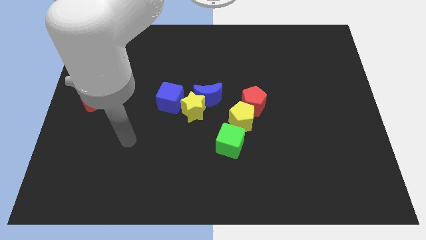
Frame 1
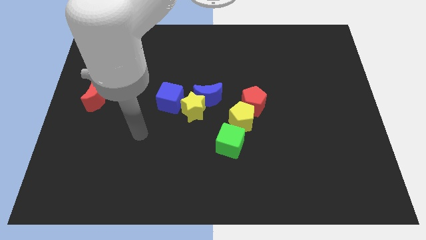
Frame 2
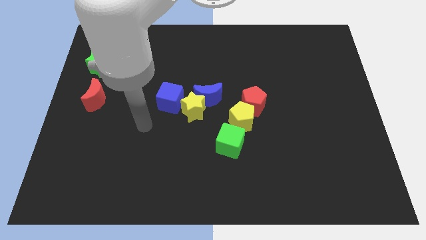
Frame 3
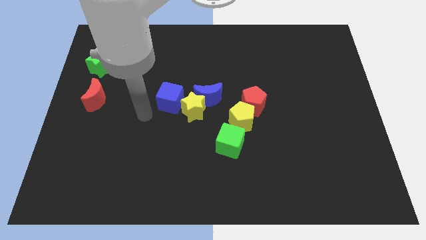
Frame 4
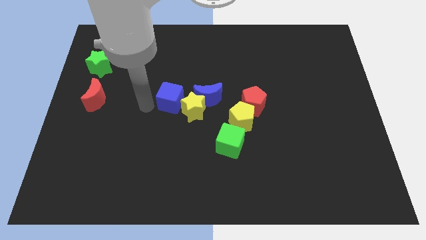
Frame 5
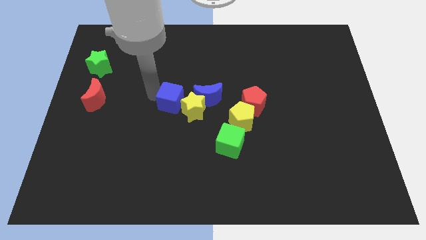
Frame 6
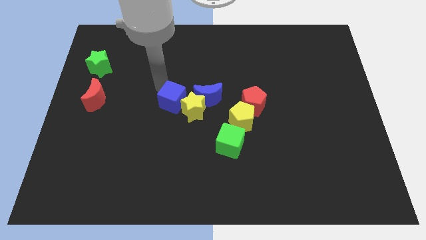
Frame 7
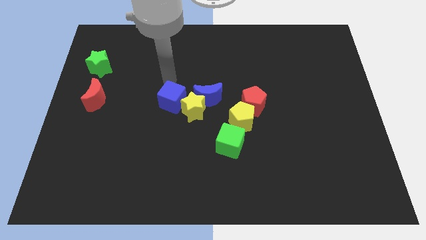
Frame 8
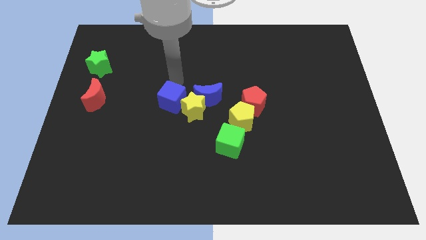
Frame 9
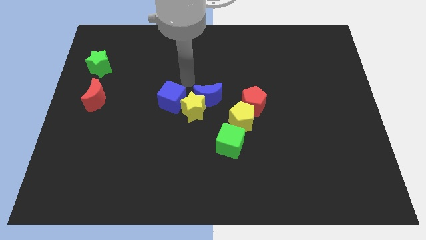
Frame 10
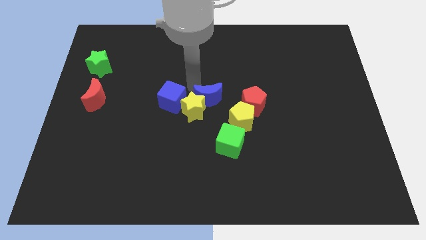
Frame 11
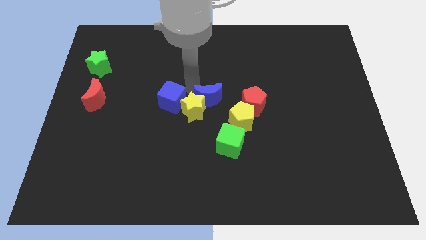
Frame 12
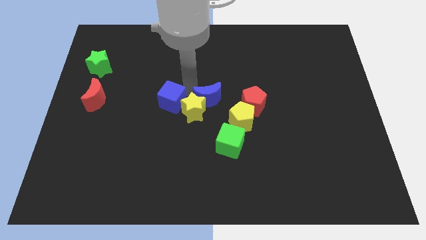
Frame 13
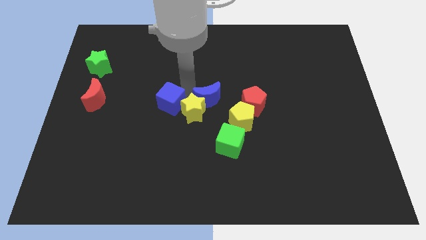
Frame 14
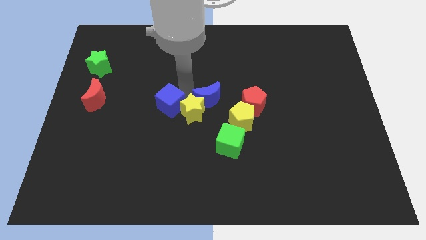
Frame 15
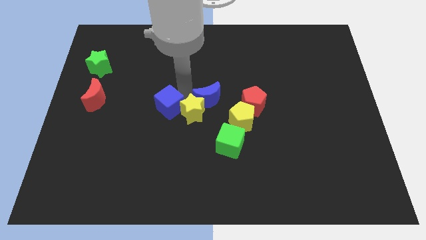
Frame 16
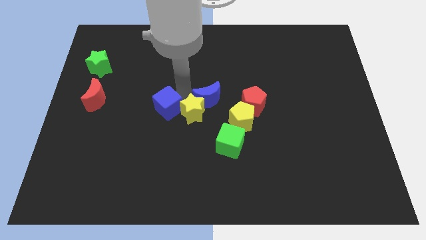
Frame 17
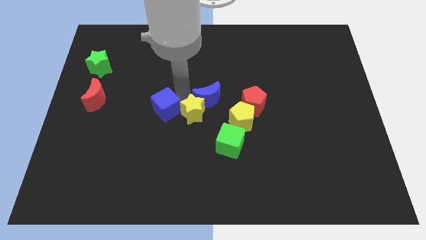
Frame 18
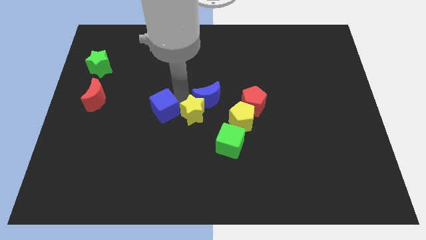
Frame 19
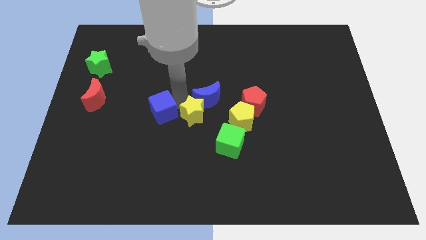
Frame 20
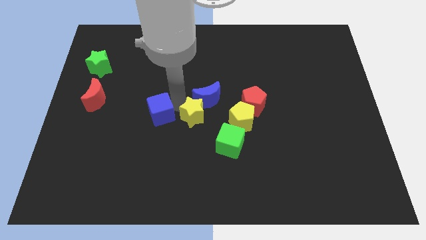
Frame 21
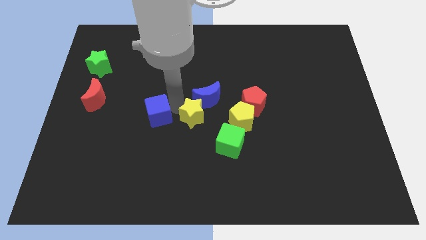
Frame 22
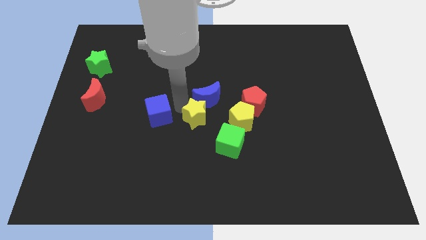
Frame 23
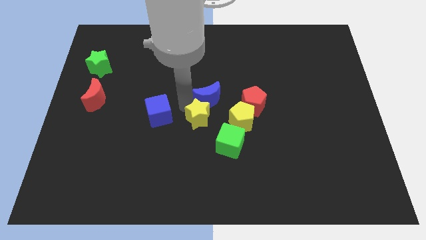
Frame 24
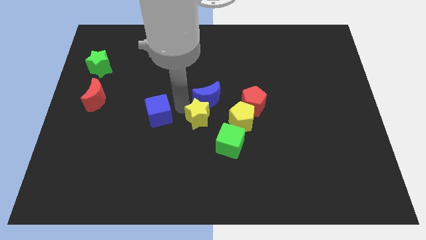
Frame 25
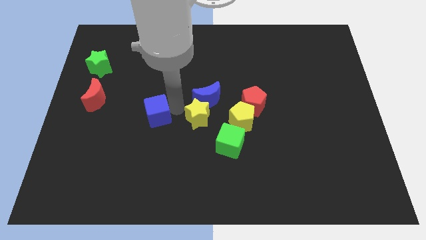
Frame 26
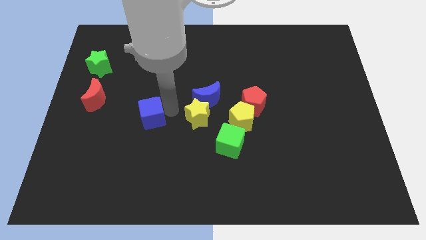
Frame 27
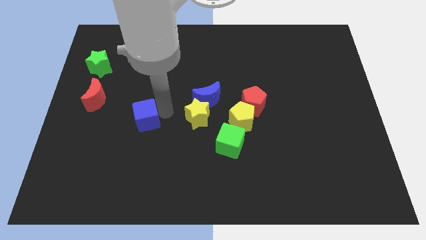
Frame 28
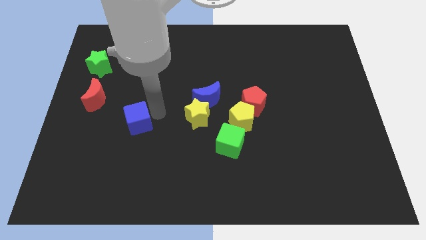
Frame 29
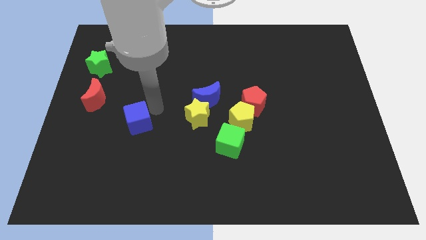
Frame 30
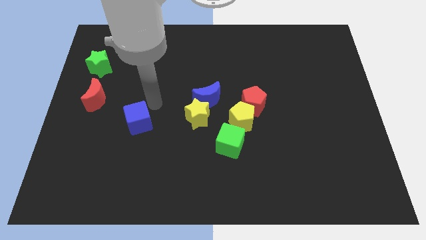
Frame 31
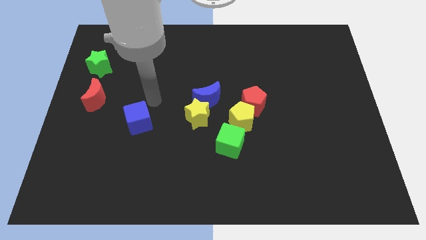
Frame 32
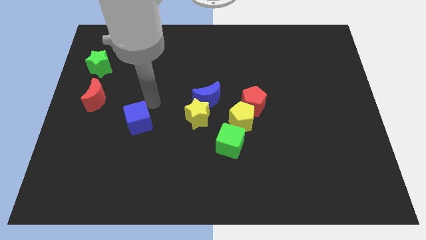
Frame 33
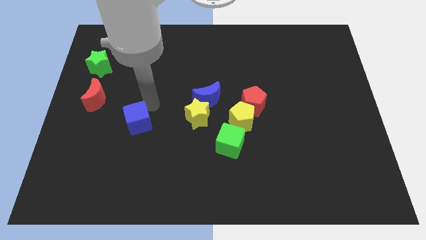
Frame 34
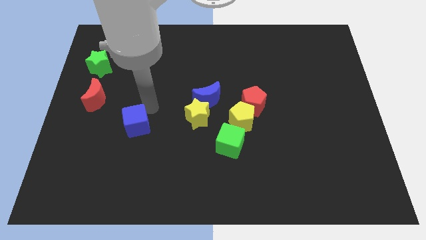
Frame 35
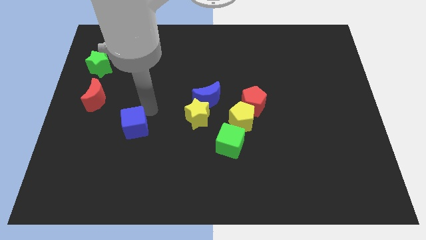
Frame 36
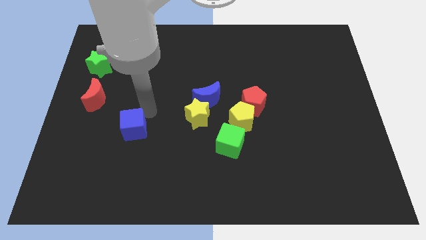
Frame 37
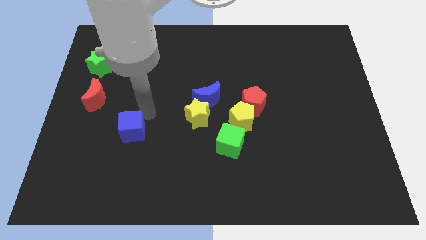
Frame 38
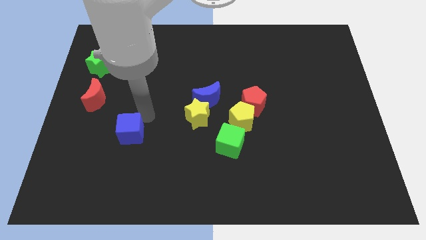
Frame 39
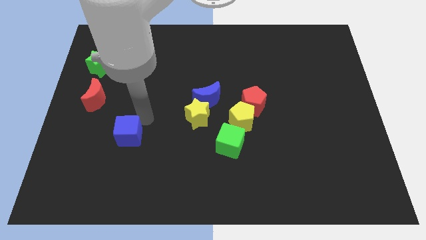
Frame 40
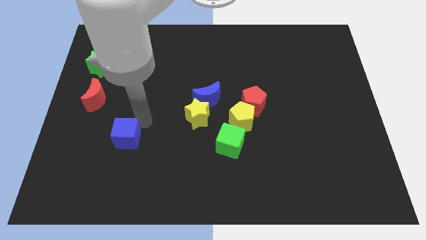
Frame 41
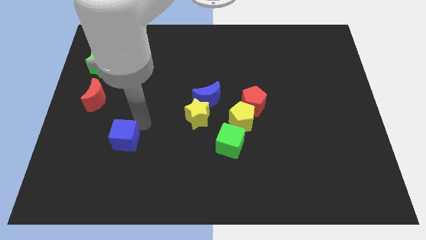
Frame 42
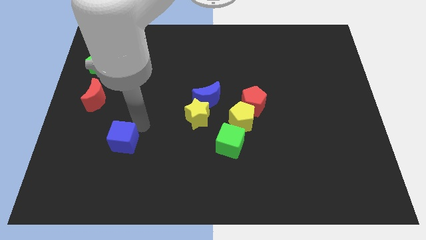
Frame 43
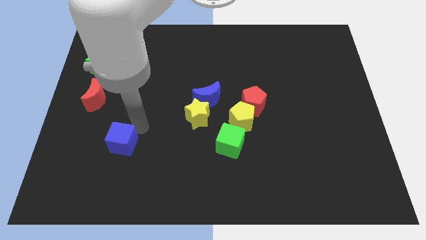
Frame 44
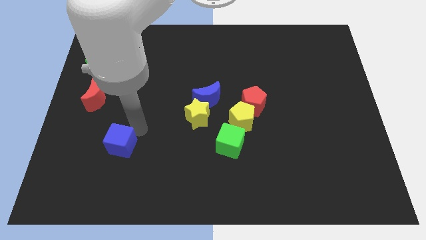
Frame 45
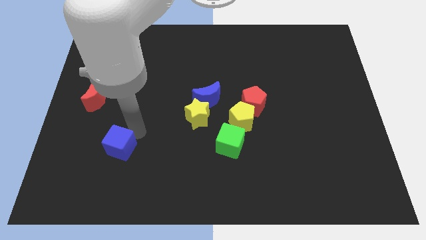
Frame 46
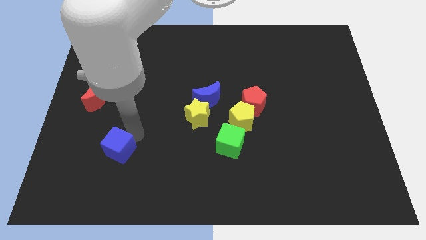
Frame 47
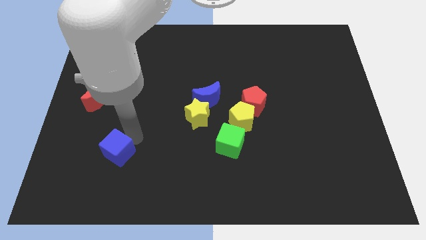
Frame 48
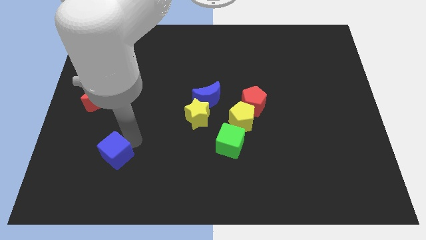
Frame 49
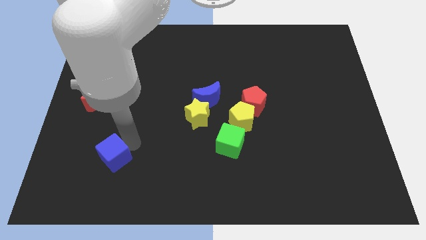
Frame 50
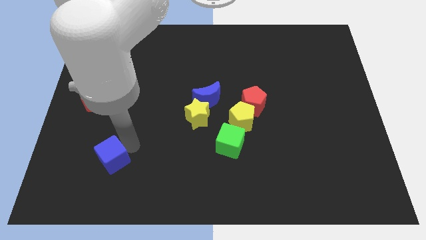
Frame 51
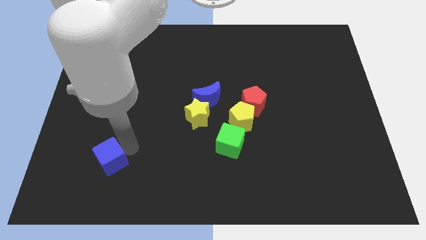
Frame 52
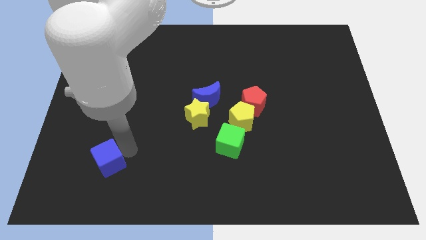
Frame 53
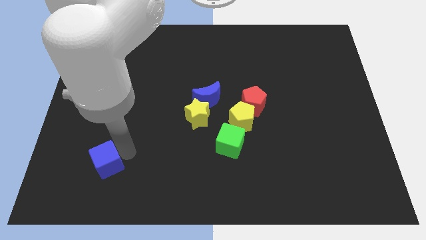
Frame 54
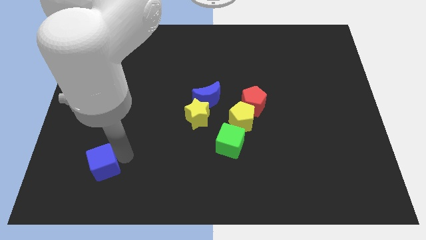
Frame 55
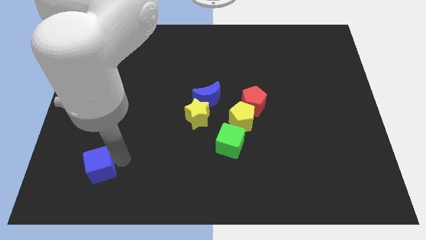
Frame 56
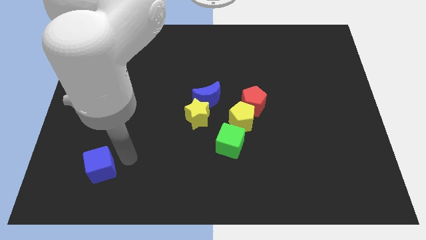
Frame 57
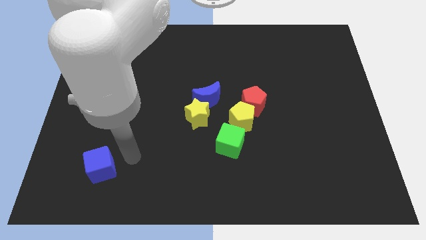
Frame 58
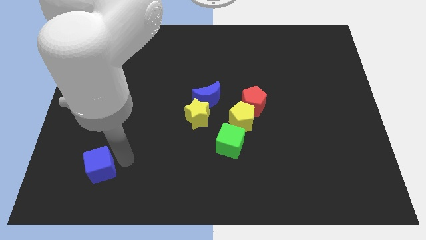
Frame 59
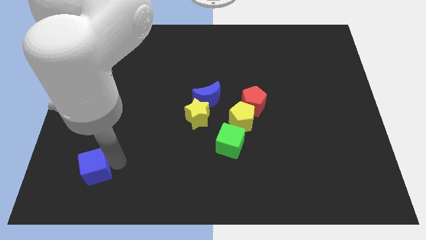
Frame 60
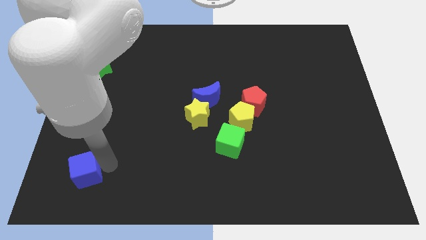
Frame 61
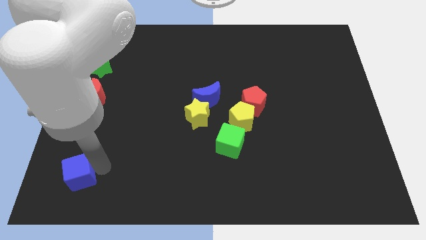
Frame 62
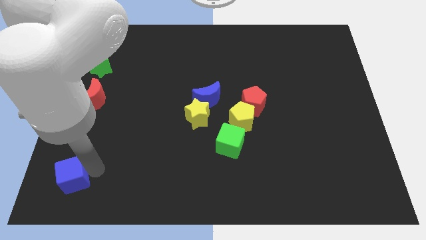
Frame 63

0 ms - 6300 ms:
put the blue cube to the bottom left of the board

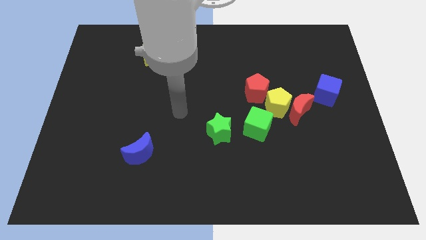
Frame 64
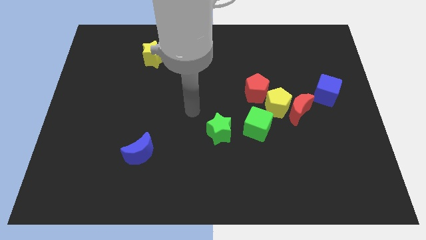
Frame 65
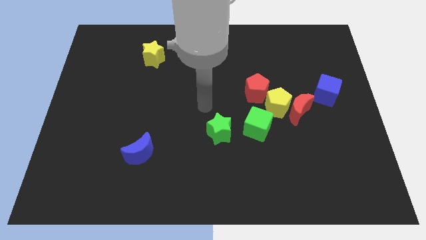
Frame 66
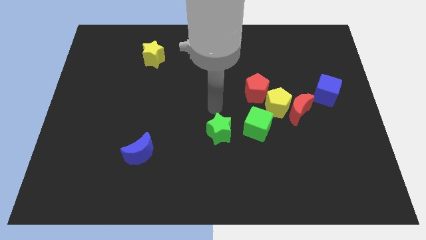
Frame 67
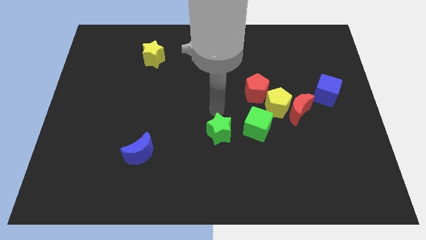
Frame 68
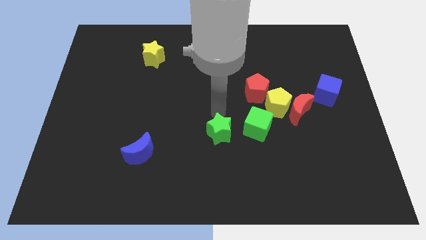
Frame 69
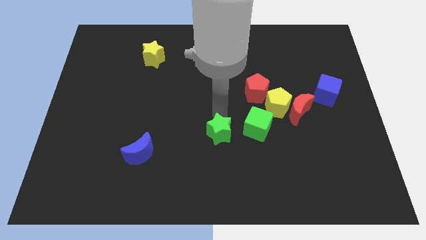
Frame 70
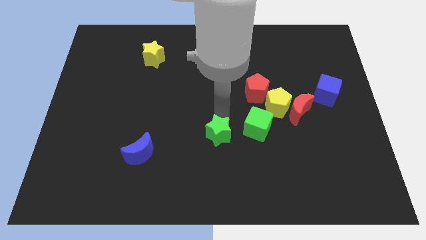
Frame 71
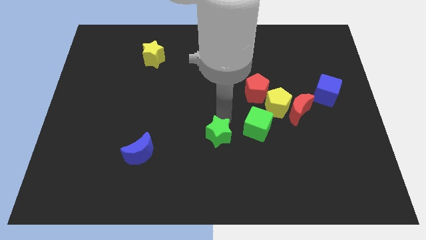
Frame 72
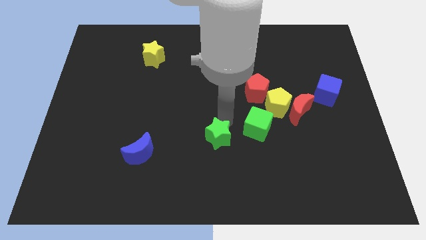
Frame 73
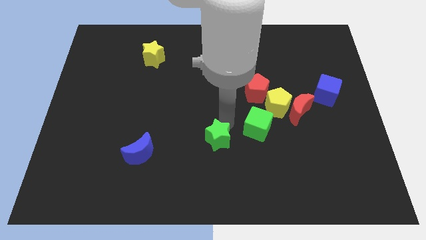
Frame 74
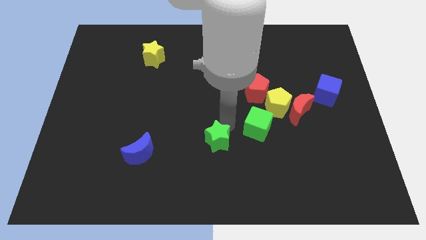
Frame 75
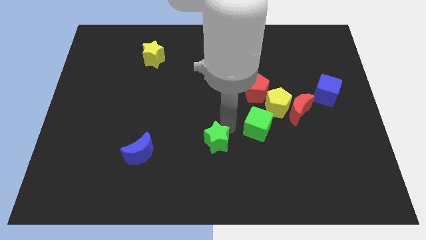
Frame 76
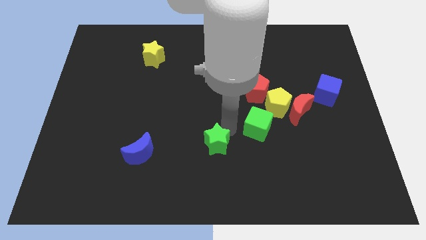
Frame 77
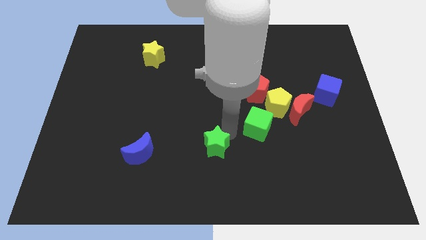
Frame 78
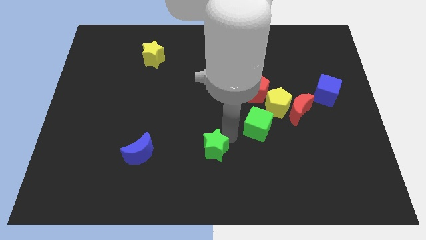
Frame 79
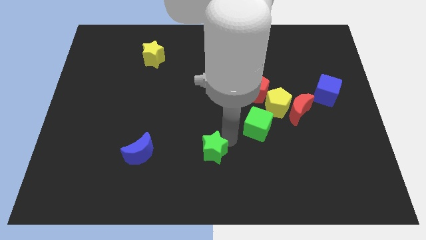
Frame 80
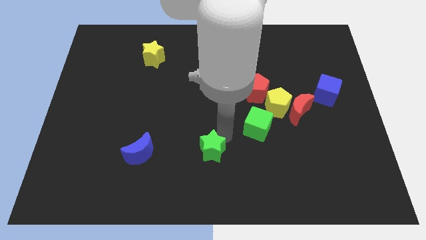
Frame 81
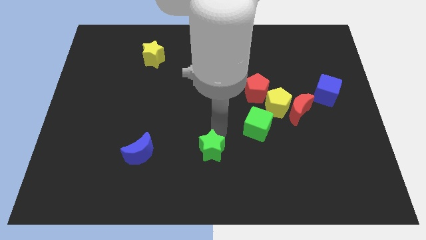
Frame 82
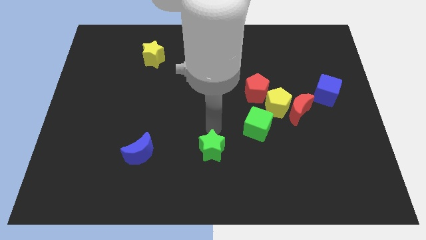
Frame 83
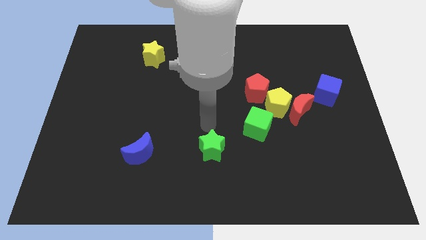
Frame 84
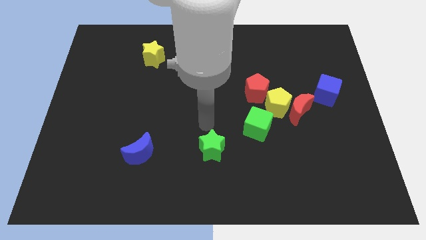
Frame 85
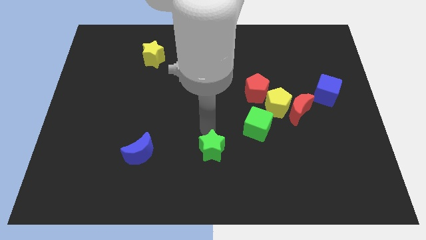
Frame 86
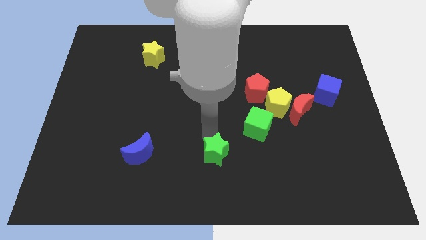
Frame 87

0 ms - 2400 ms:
put the green star to the bottom
